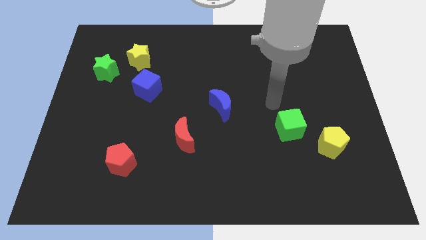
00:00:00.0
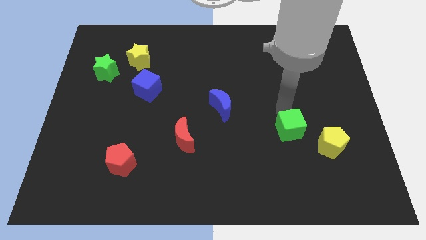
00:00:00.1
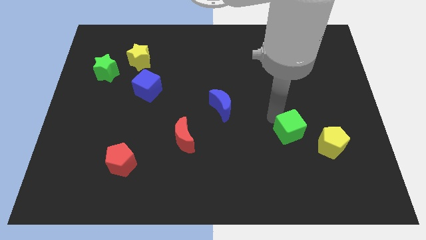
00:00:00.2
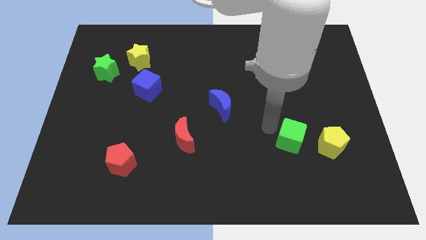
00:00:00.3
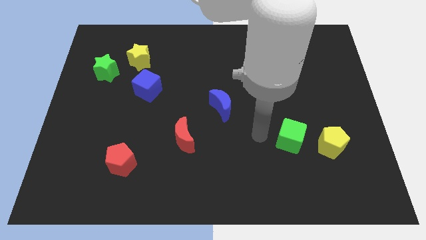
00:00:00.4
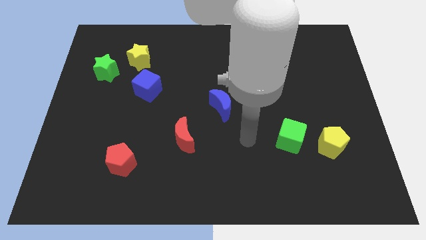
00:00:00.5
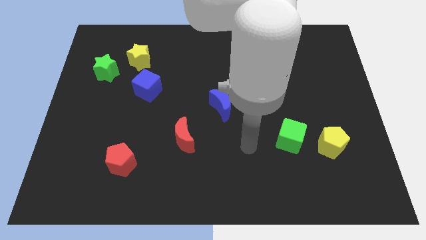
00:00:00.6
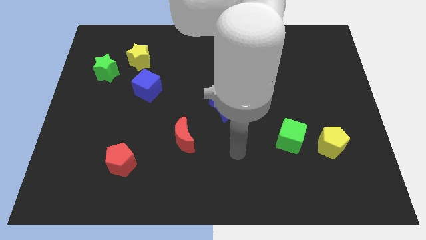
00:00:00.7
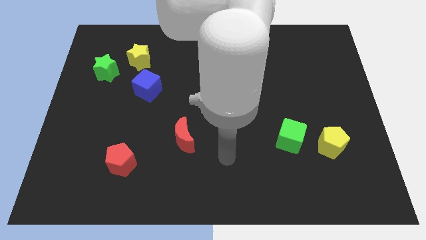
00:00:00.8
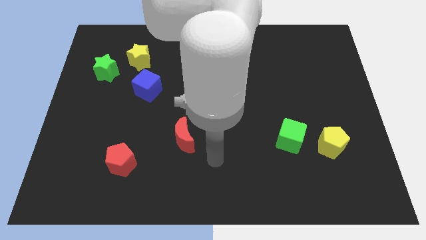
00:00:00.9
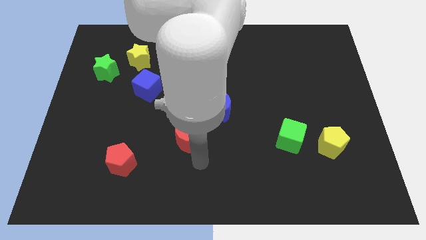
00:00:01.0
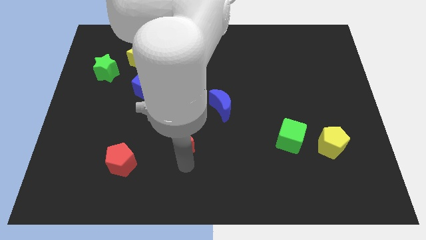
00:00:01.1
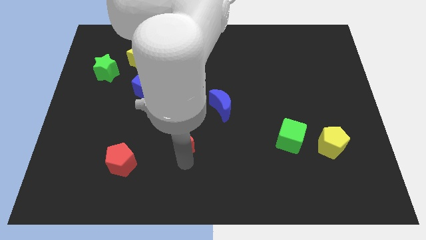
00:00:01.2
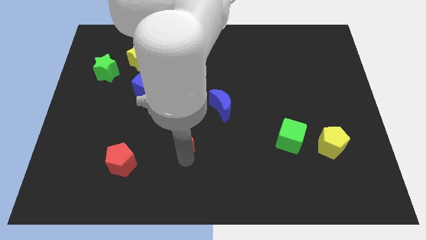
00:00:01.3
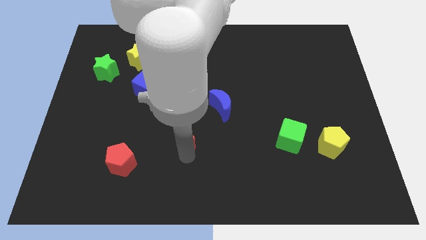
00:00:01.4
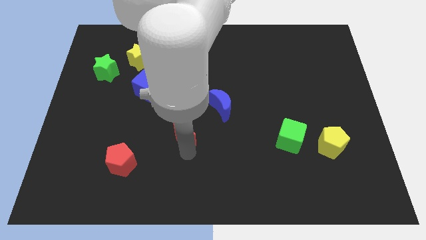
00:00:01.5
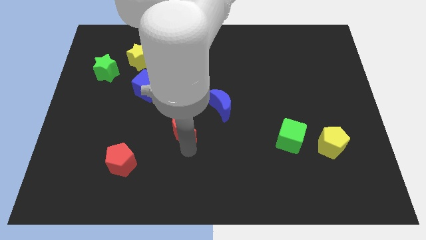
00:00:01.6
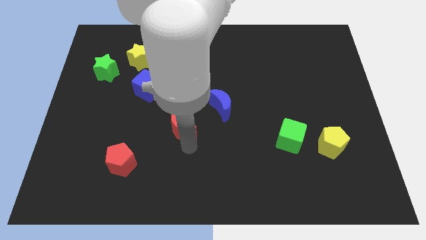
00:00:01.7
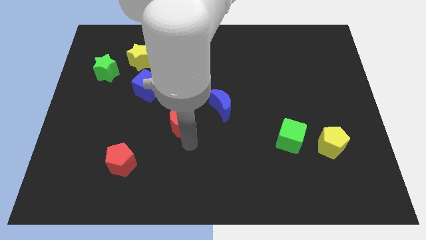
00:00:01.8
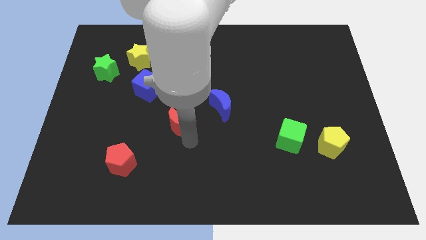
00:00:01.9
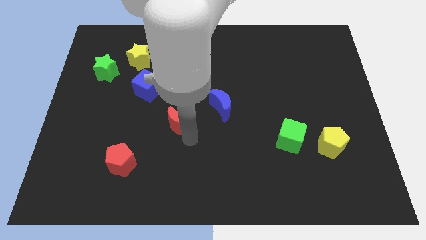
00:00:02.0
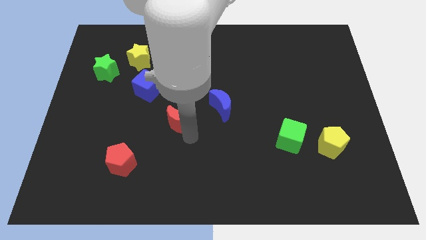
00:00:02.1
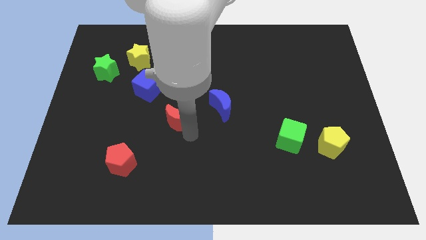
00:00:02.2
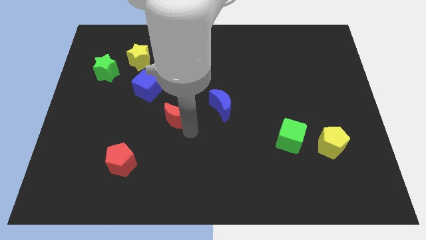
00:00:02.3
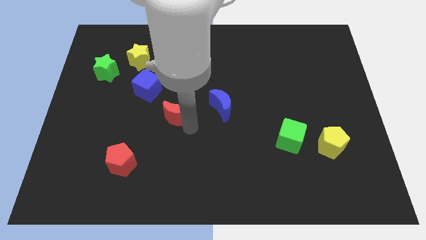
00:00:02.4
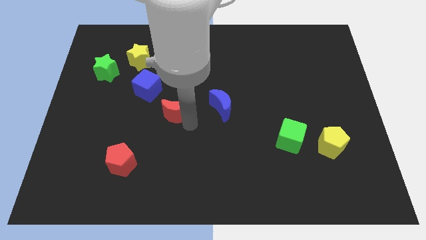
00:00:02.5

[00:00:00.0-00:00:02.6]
slightly move the red moon upwards

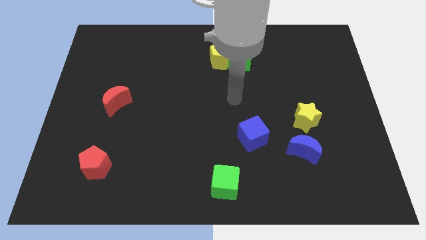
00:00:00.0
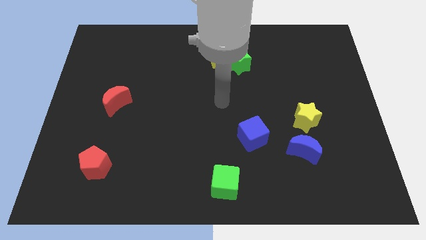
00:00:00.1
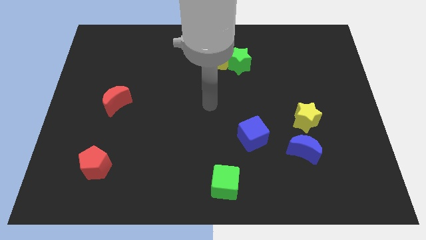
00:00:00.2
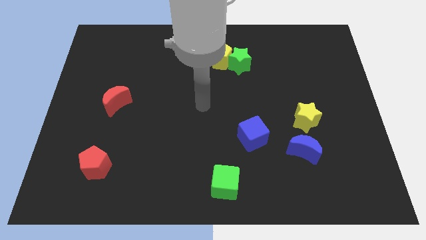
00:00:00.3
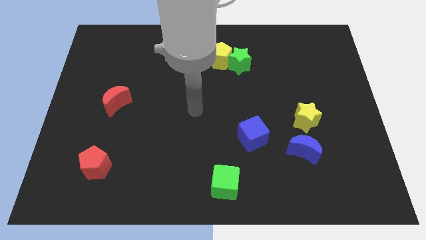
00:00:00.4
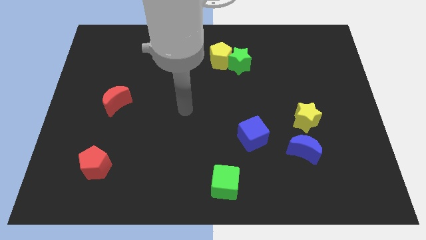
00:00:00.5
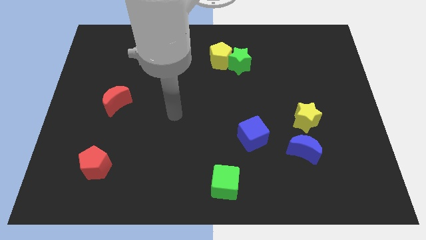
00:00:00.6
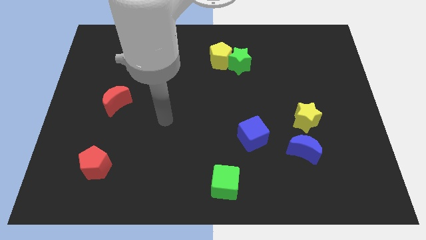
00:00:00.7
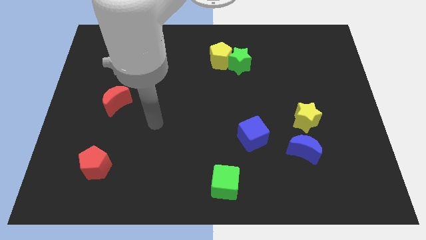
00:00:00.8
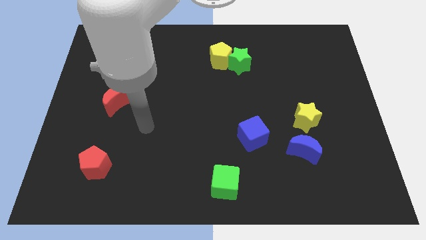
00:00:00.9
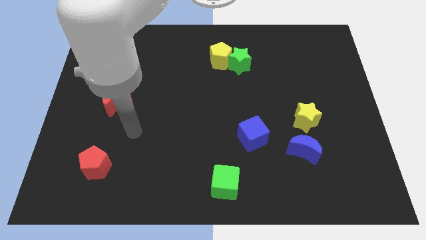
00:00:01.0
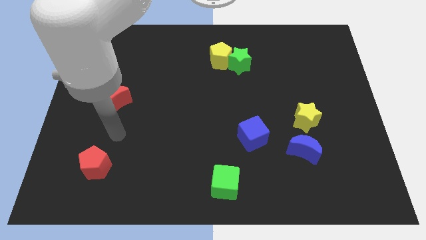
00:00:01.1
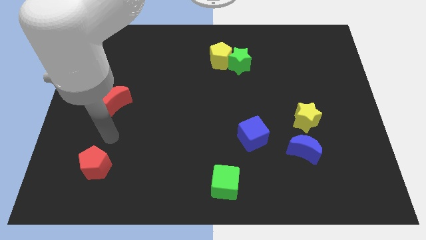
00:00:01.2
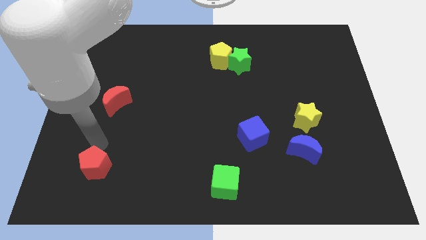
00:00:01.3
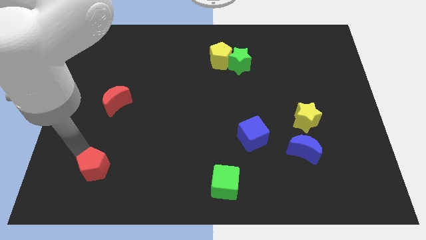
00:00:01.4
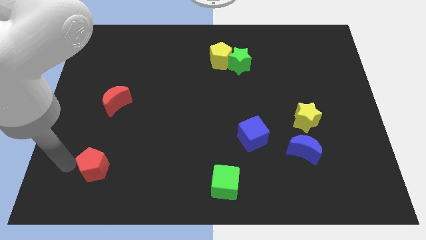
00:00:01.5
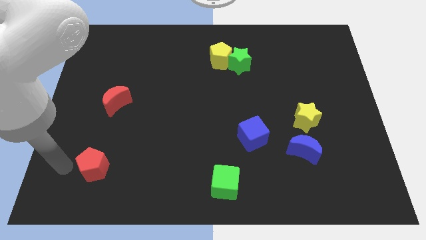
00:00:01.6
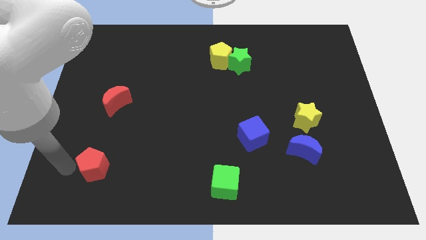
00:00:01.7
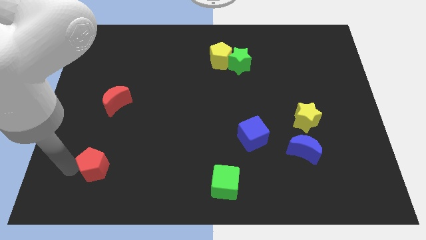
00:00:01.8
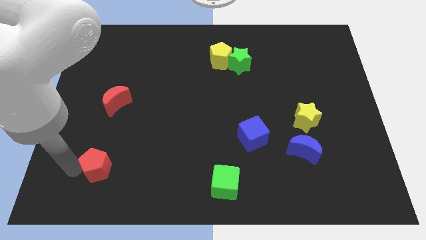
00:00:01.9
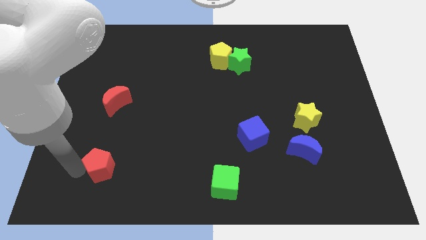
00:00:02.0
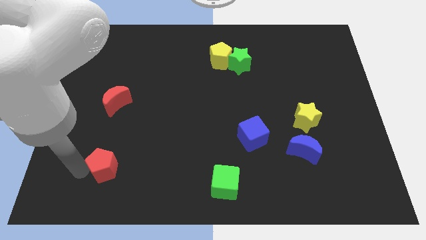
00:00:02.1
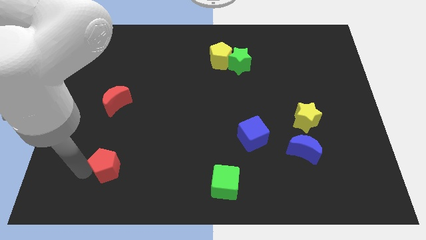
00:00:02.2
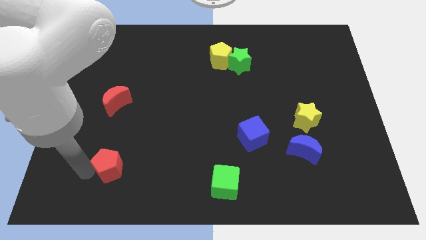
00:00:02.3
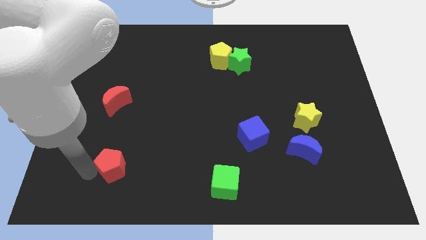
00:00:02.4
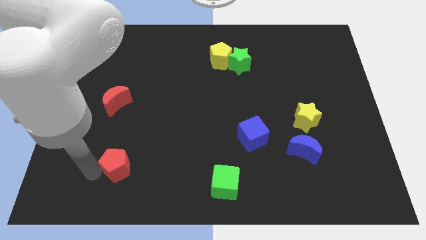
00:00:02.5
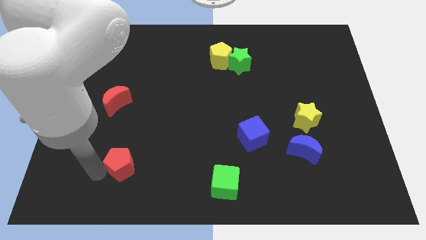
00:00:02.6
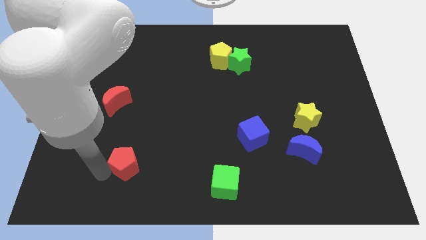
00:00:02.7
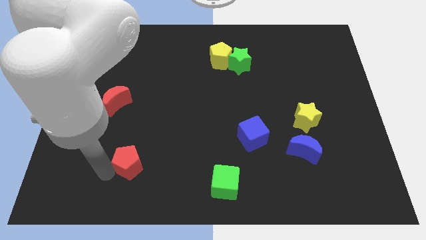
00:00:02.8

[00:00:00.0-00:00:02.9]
slightly push the red pentagon to the right

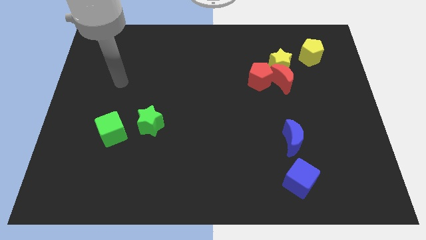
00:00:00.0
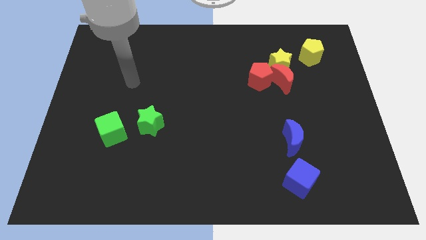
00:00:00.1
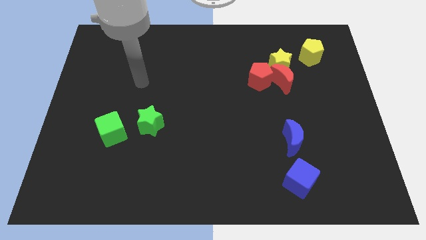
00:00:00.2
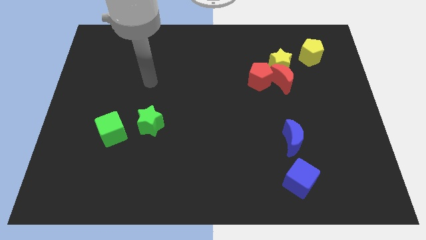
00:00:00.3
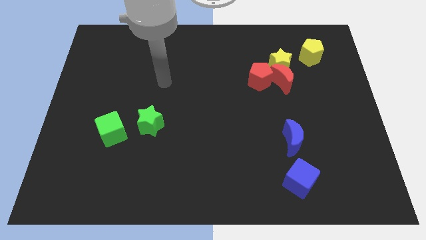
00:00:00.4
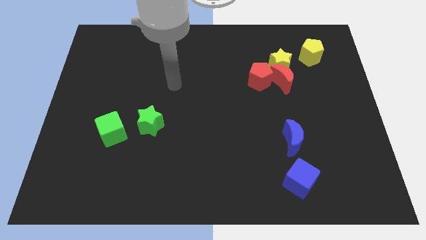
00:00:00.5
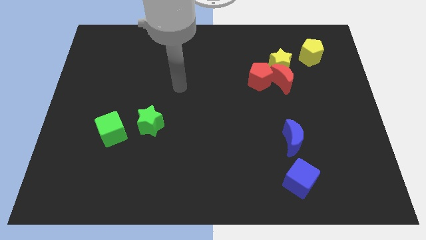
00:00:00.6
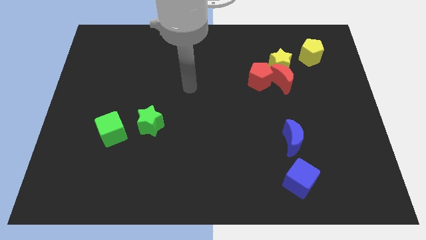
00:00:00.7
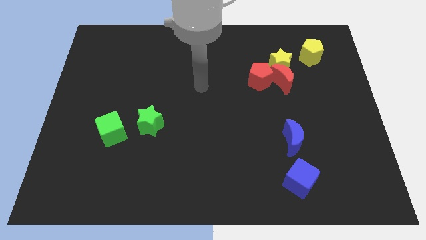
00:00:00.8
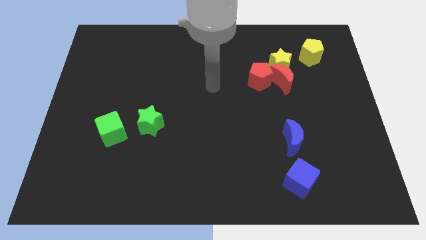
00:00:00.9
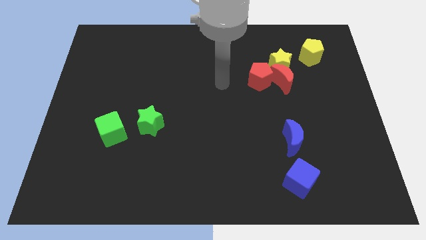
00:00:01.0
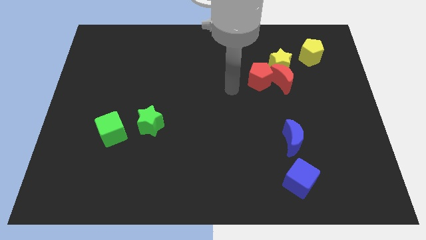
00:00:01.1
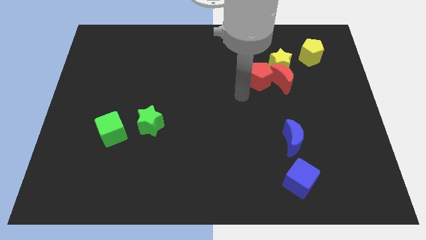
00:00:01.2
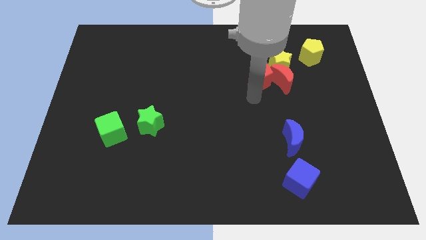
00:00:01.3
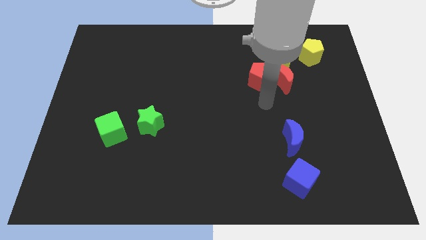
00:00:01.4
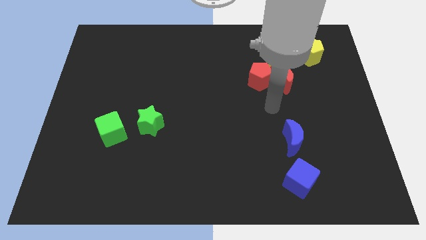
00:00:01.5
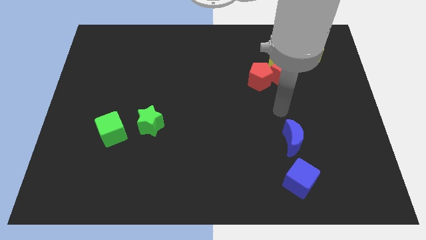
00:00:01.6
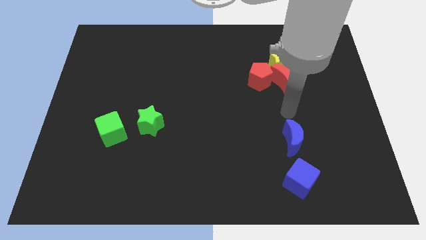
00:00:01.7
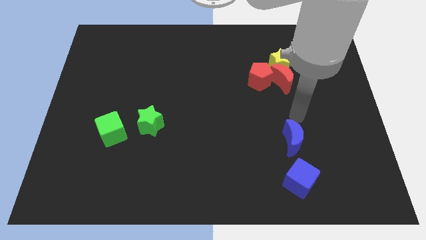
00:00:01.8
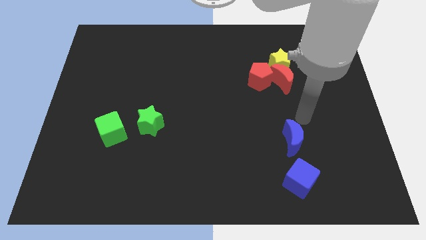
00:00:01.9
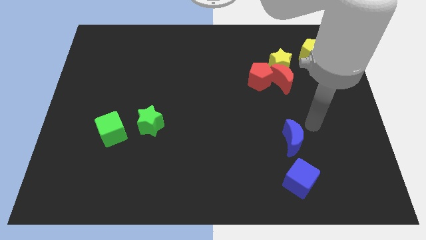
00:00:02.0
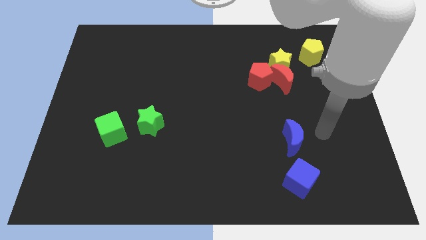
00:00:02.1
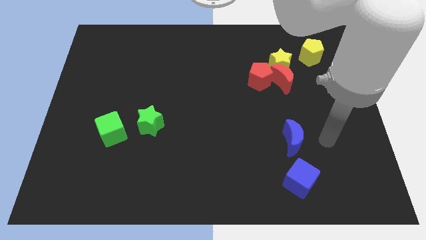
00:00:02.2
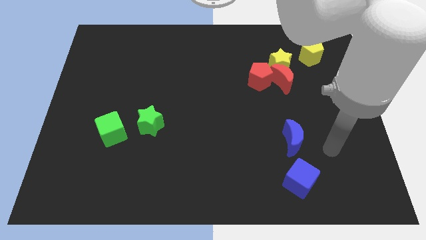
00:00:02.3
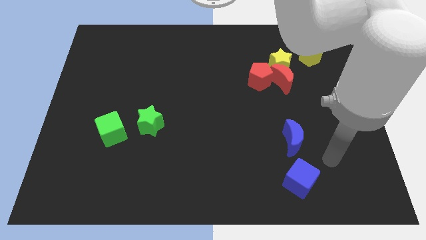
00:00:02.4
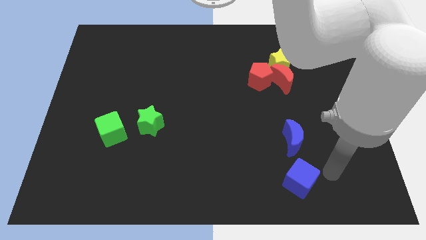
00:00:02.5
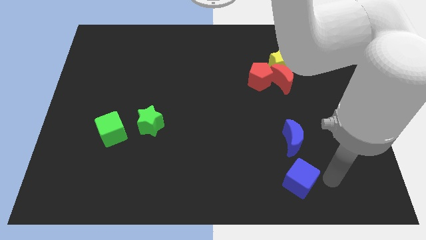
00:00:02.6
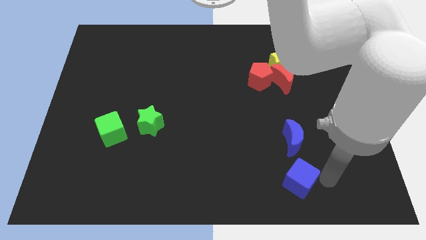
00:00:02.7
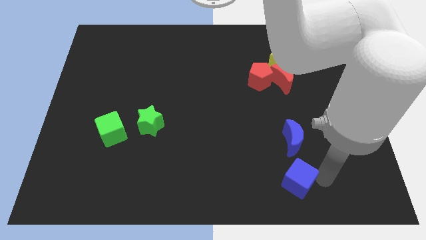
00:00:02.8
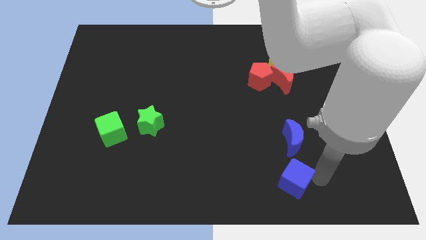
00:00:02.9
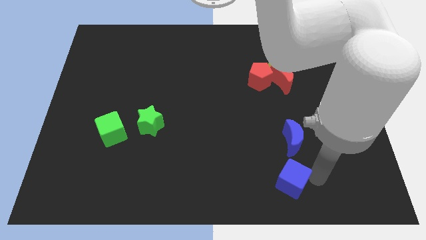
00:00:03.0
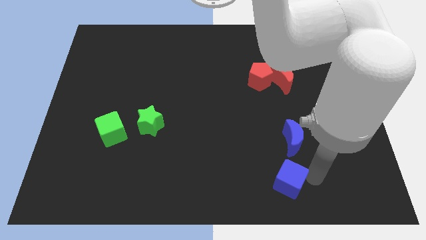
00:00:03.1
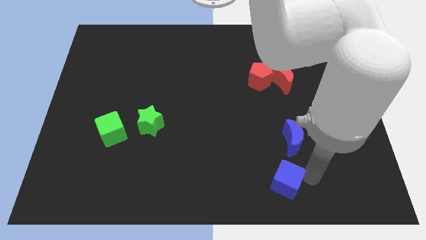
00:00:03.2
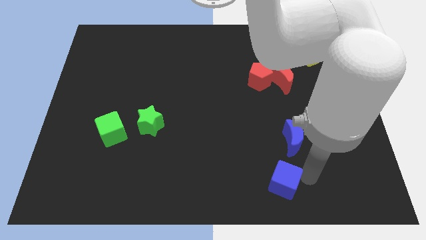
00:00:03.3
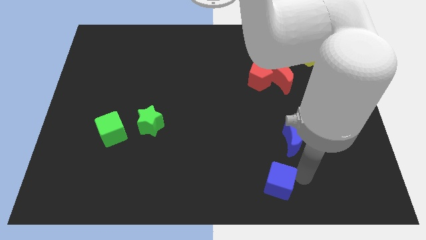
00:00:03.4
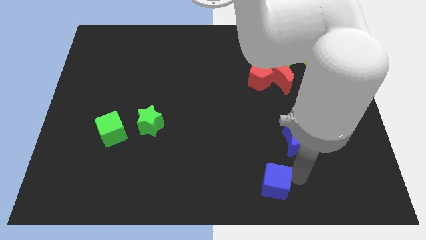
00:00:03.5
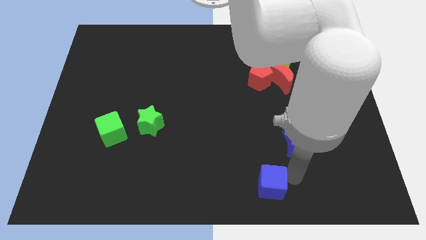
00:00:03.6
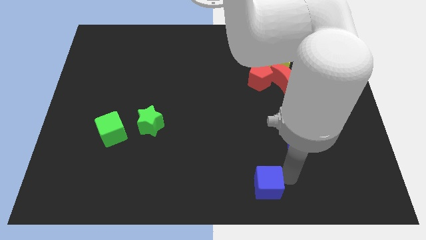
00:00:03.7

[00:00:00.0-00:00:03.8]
move the blue cube left a little
